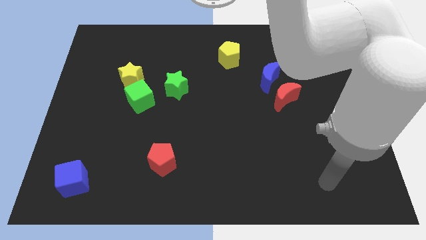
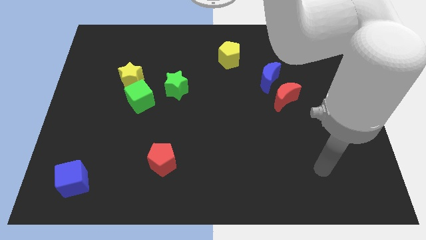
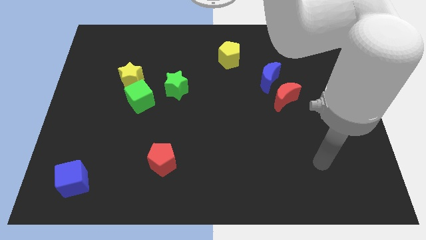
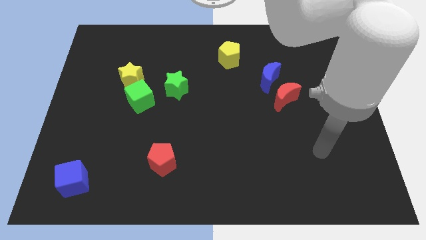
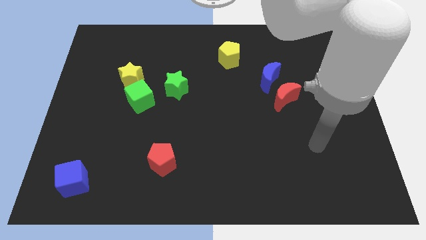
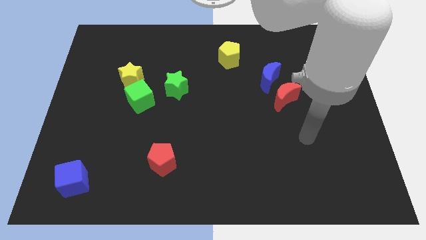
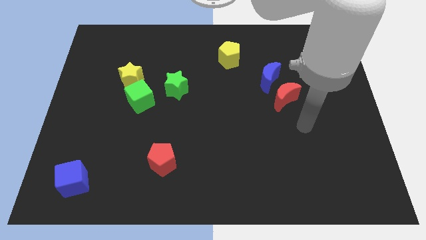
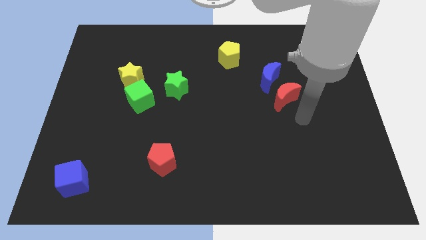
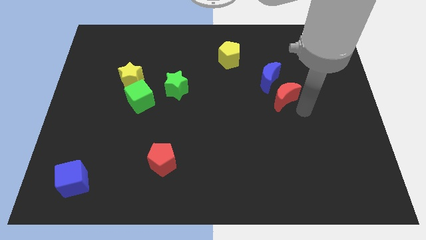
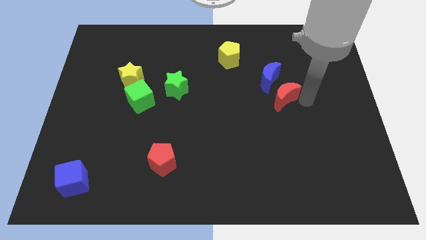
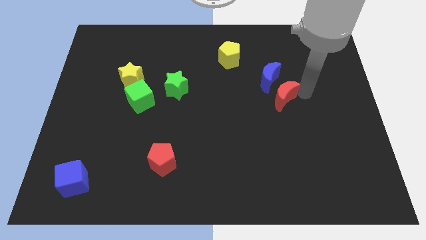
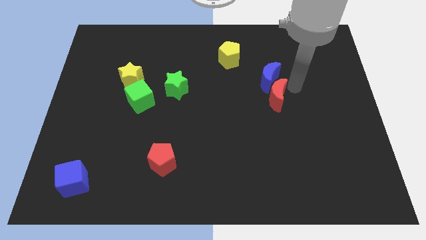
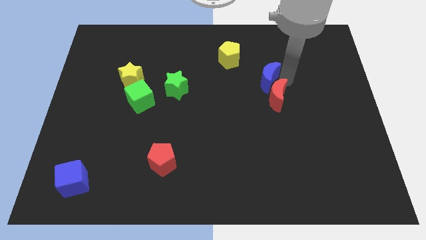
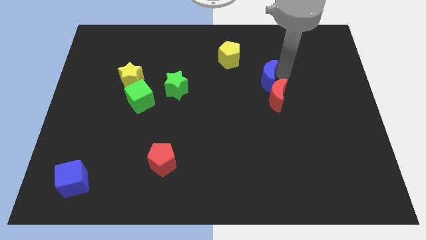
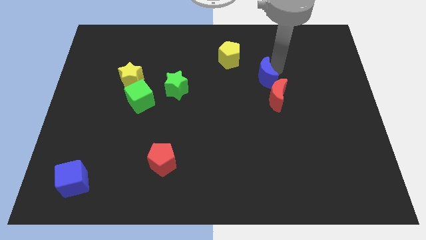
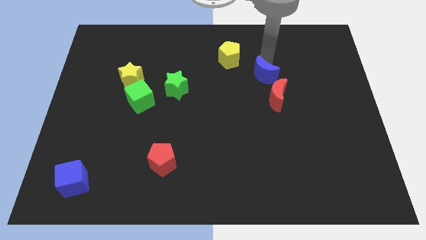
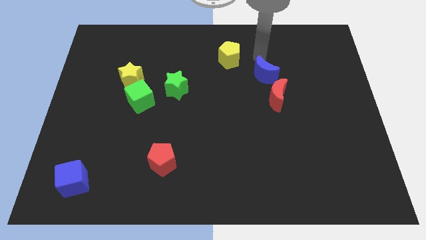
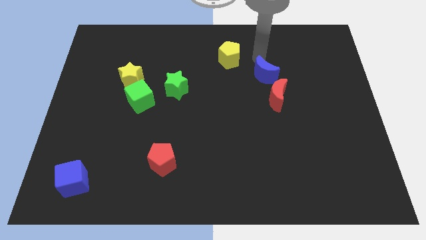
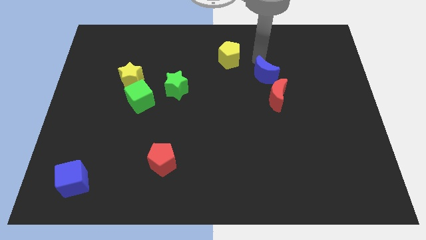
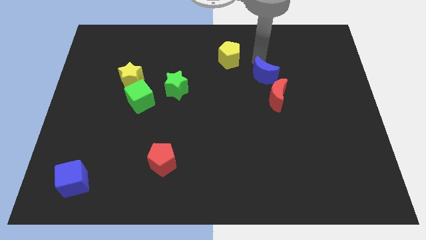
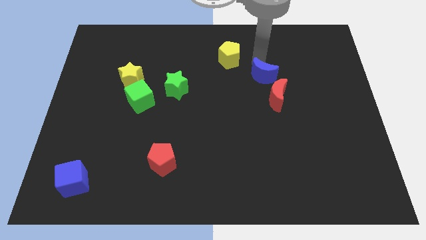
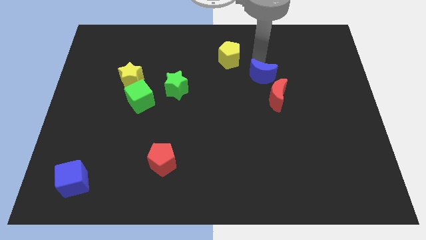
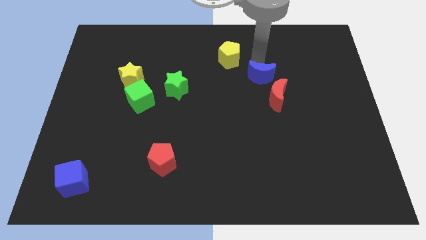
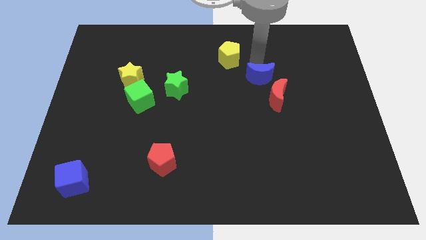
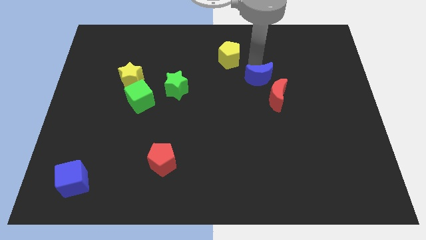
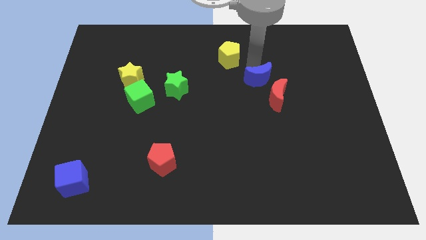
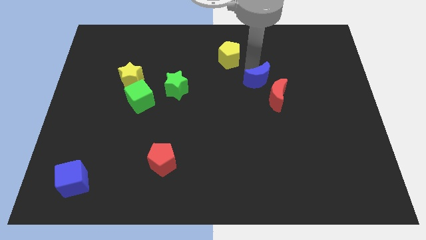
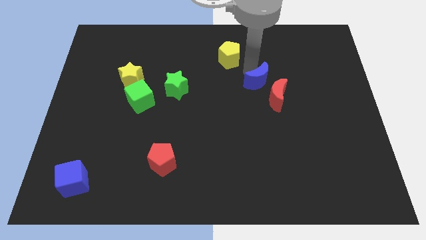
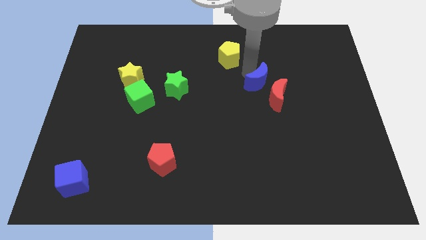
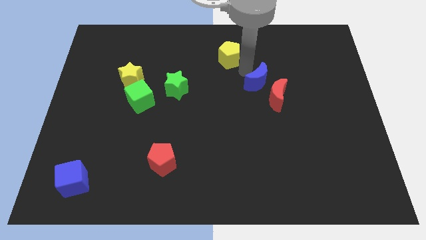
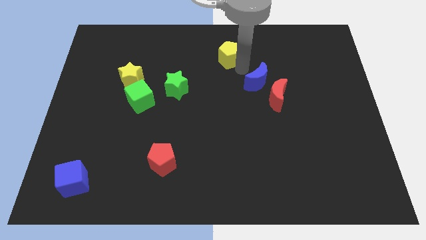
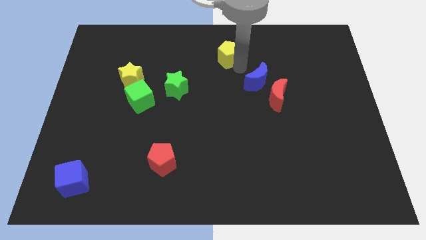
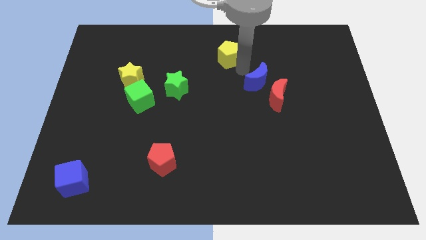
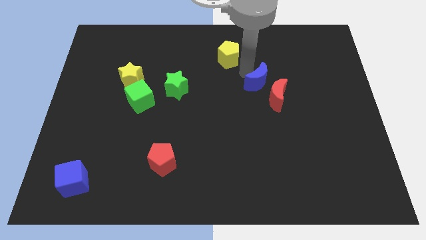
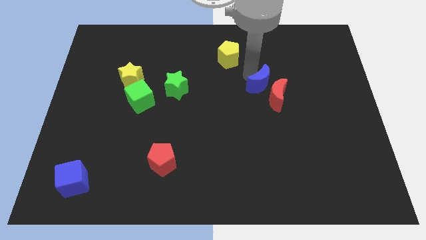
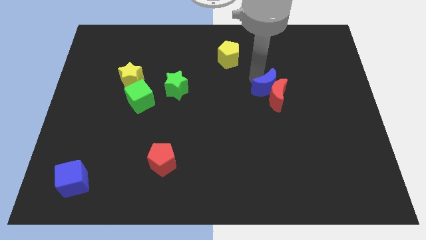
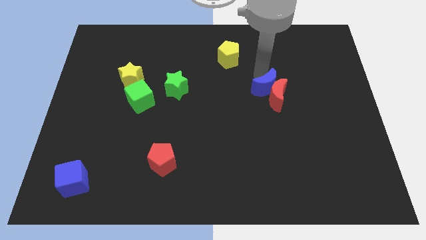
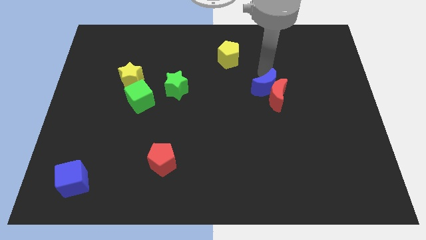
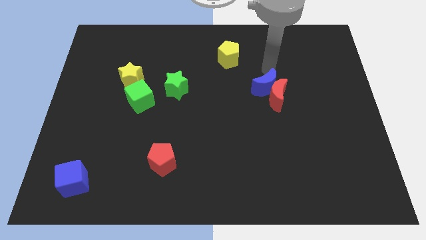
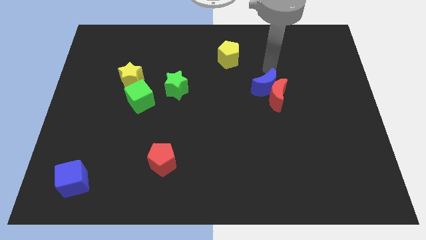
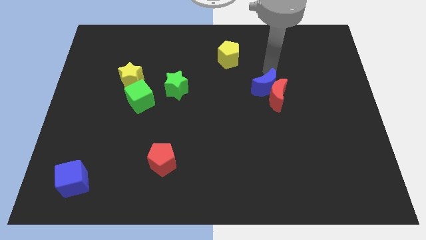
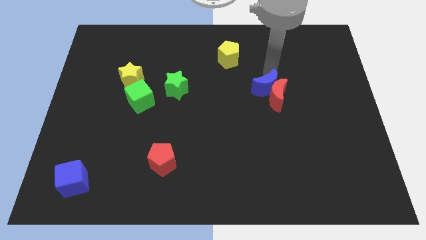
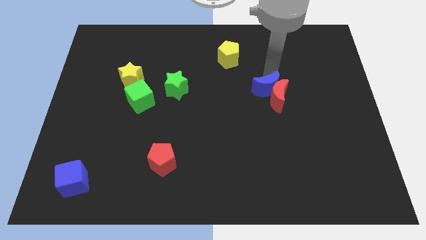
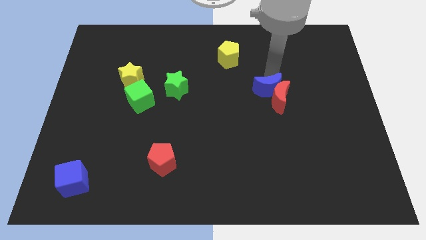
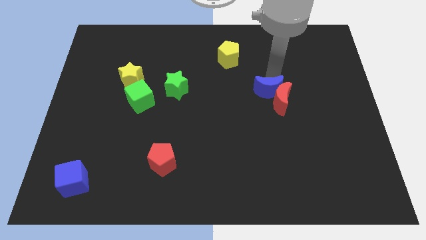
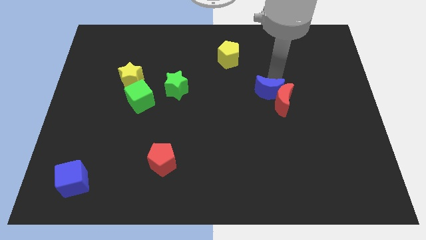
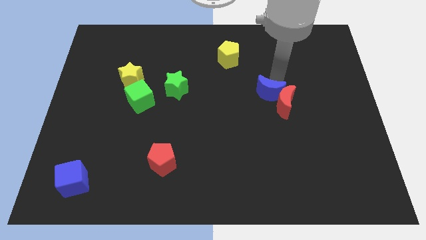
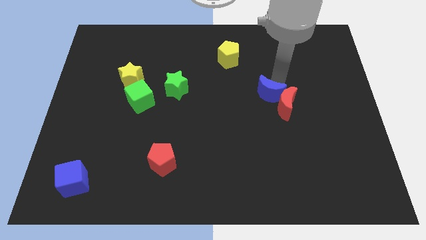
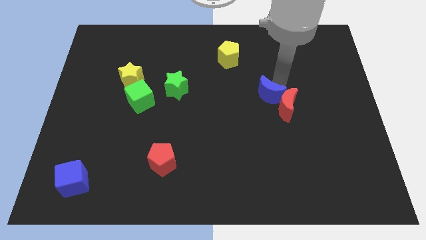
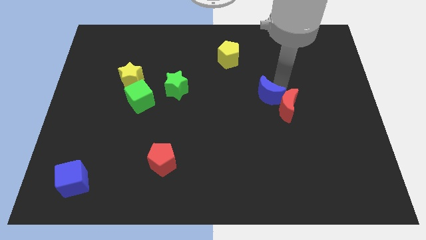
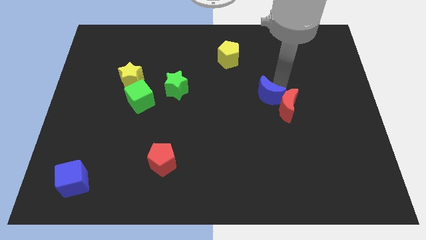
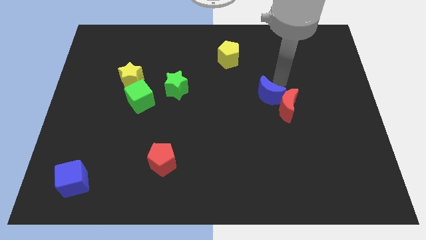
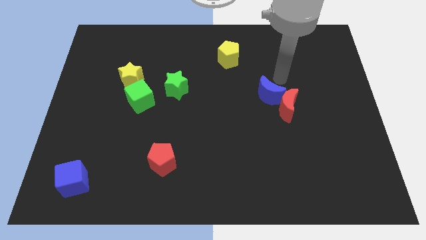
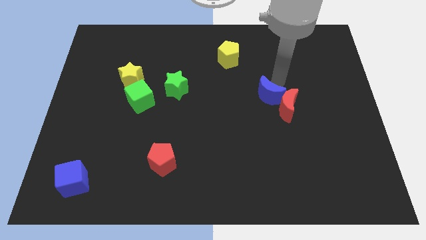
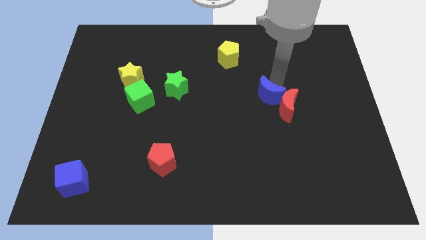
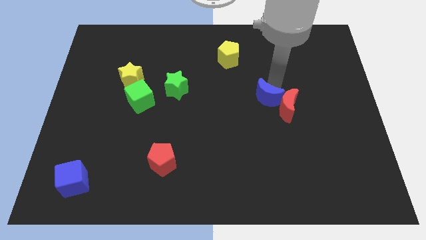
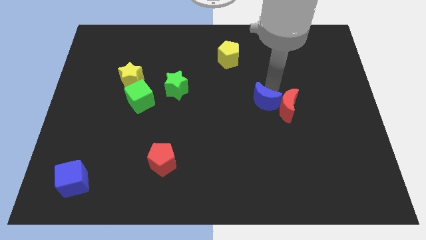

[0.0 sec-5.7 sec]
slide the blue moon downwards a bit

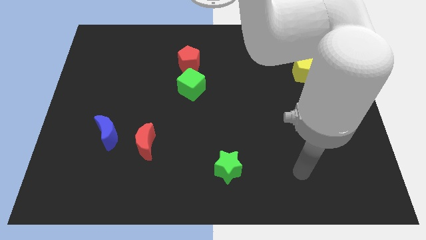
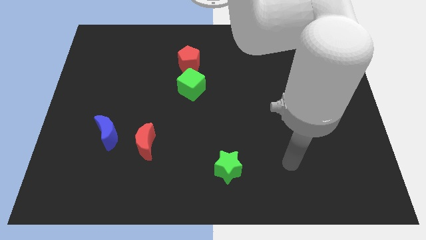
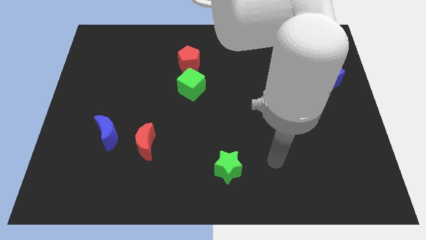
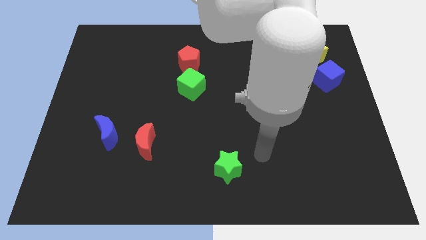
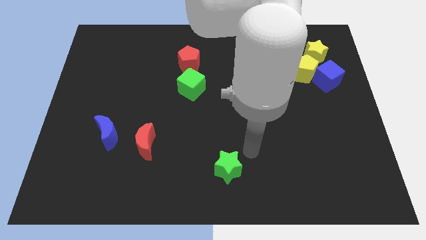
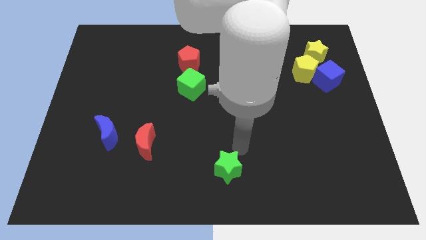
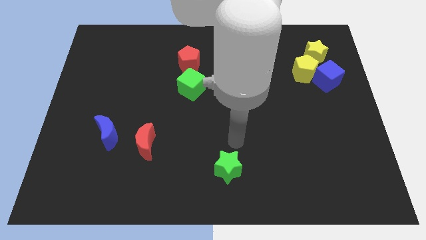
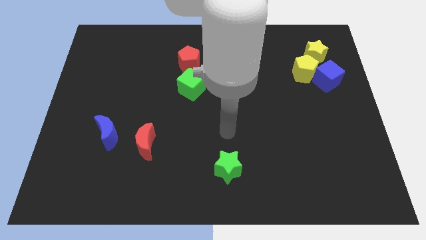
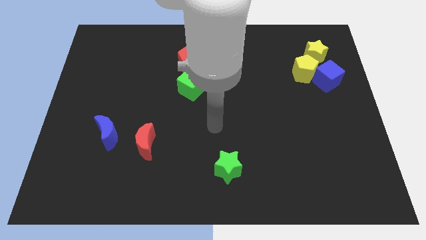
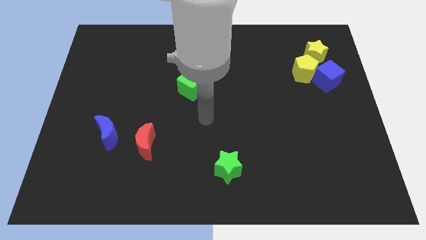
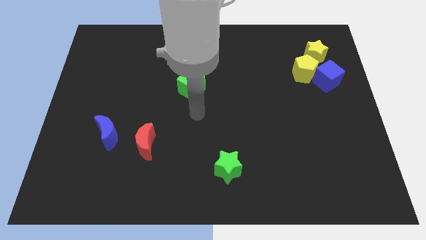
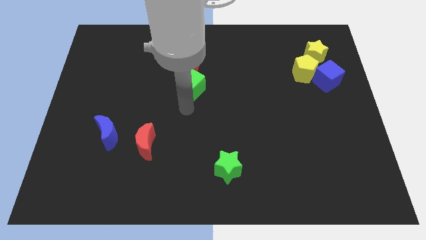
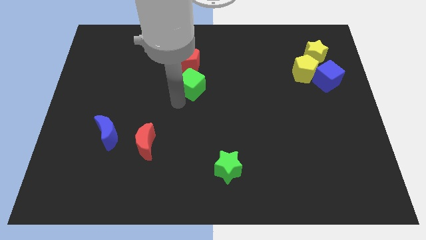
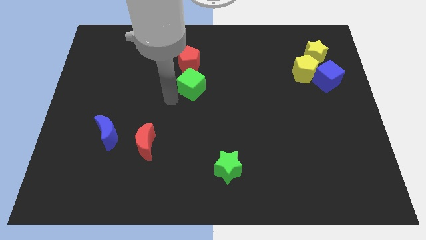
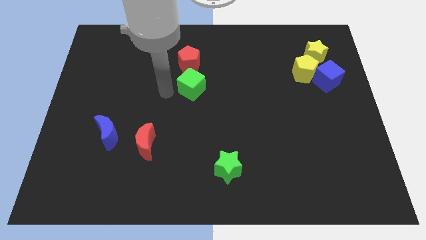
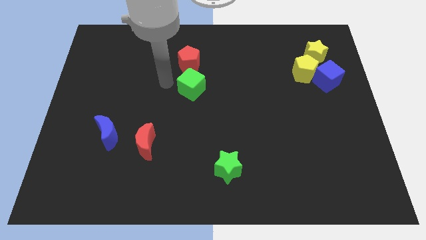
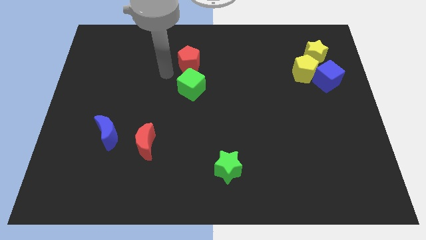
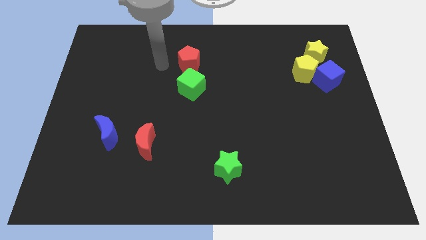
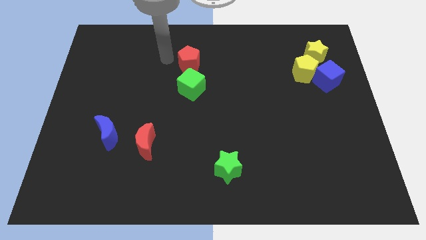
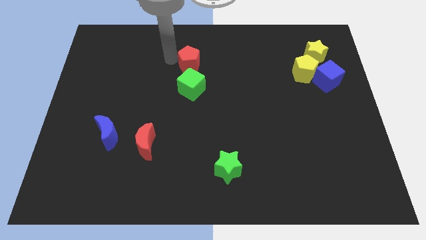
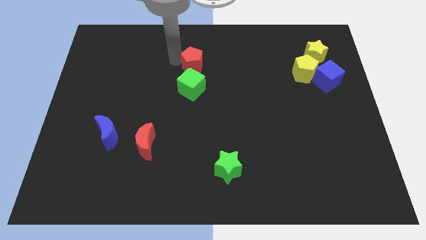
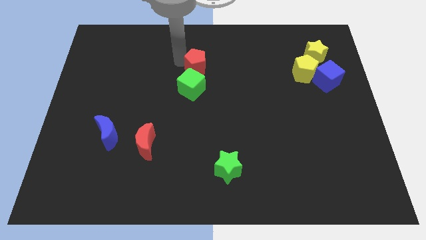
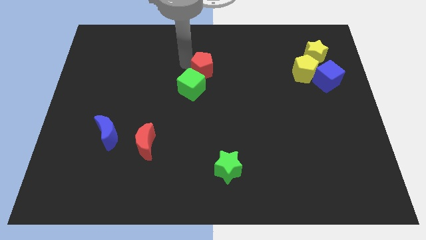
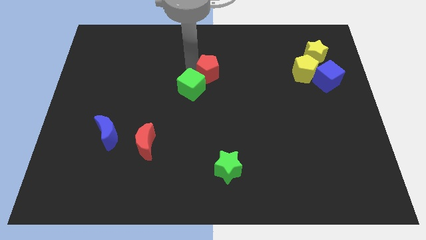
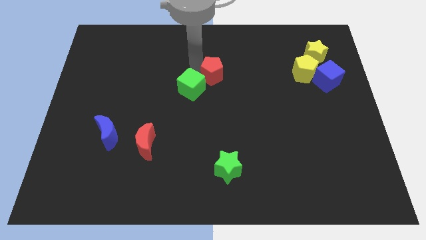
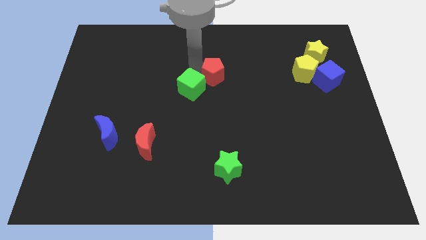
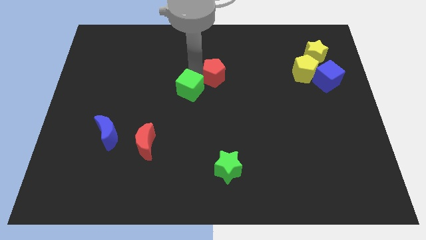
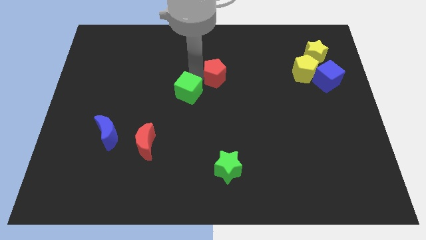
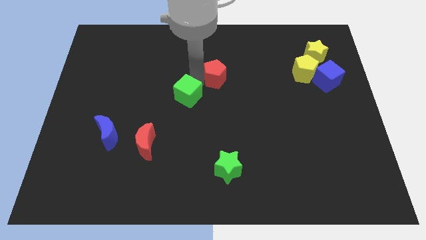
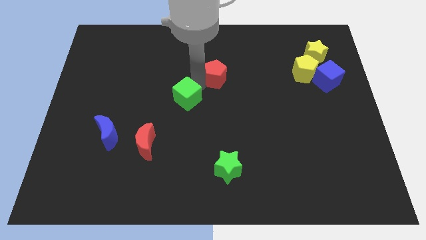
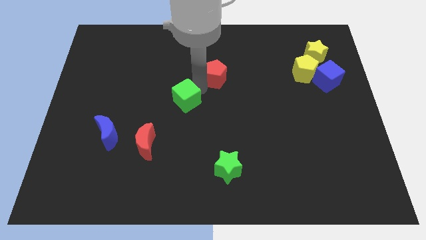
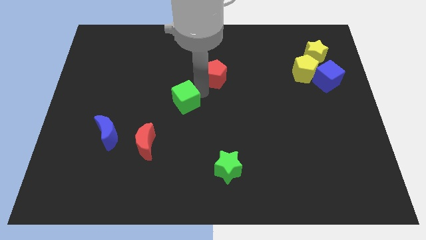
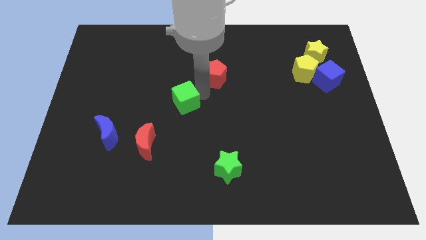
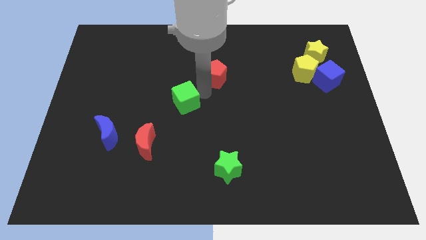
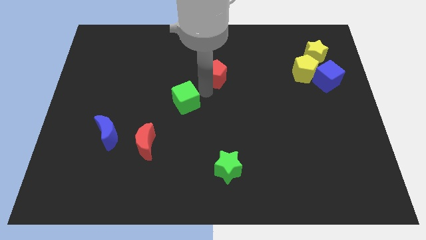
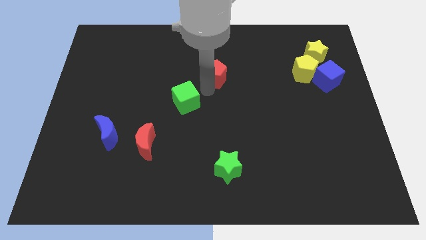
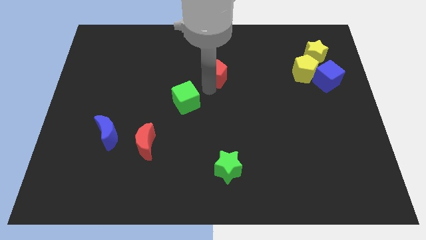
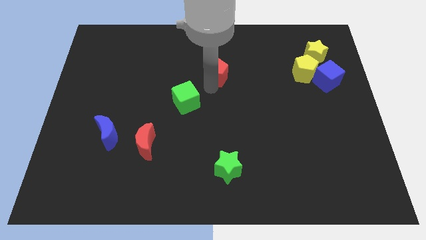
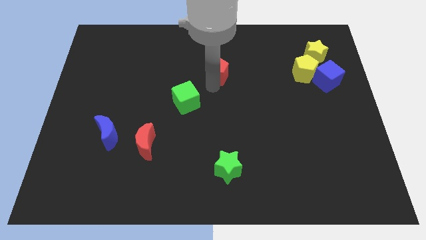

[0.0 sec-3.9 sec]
move the red pentagon right slightly
